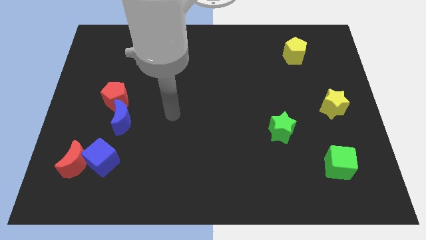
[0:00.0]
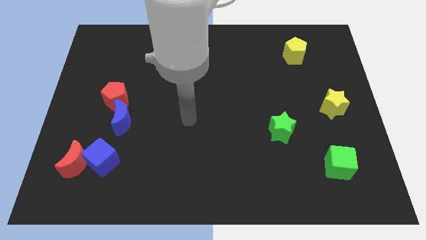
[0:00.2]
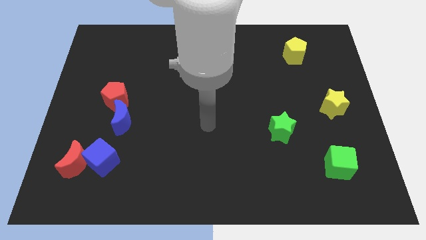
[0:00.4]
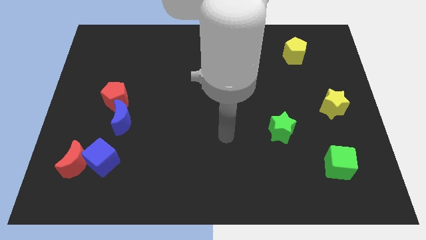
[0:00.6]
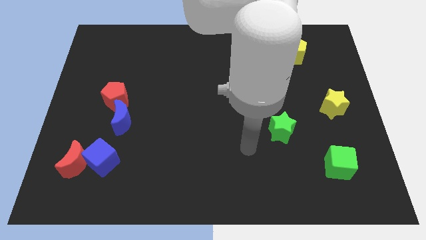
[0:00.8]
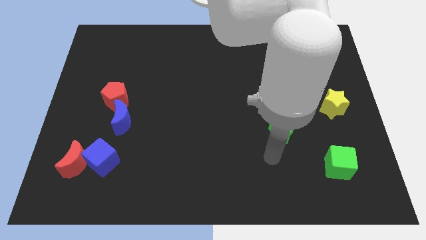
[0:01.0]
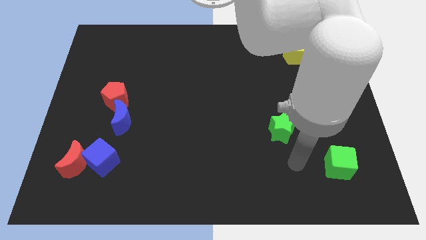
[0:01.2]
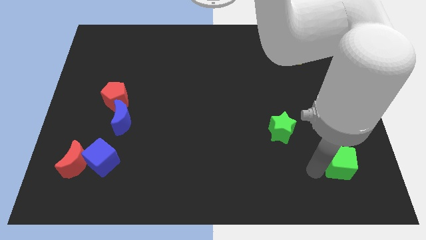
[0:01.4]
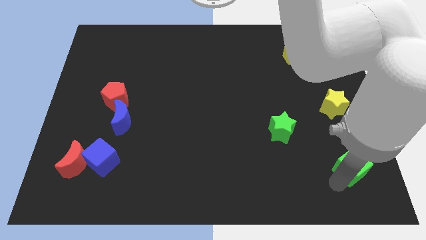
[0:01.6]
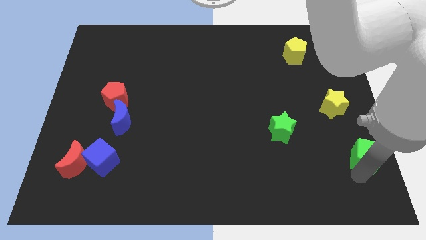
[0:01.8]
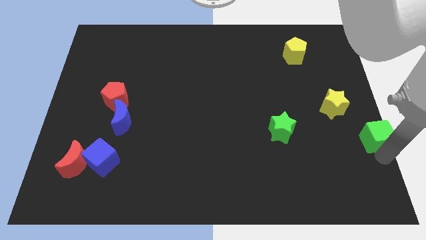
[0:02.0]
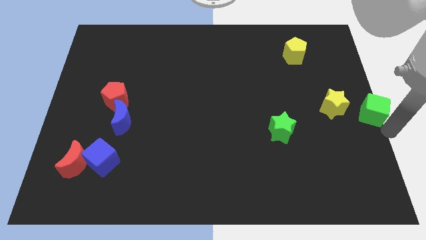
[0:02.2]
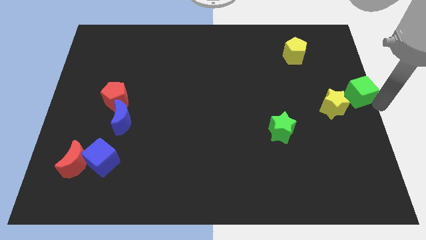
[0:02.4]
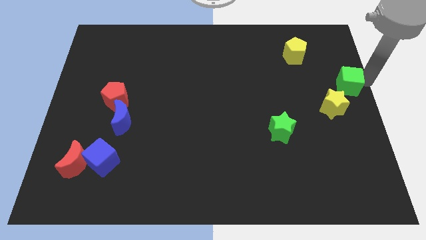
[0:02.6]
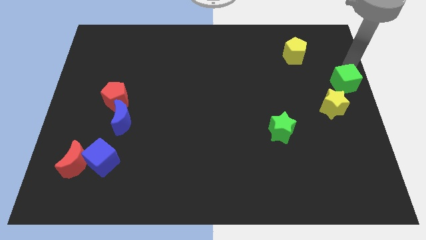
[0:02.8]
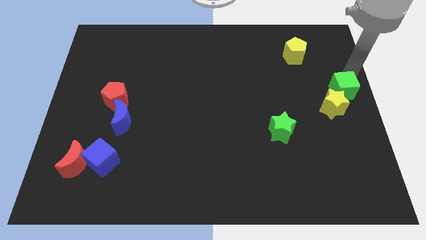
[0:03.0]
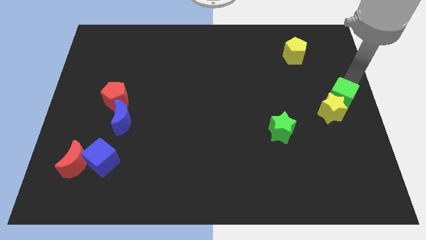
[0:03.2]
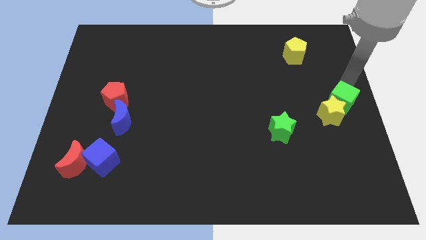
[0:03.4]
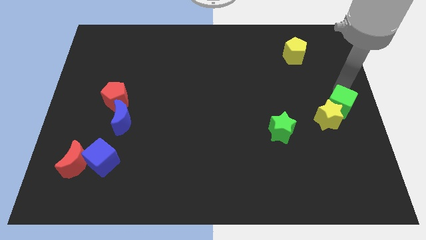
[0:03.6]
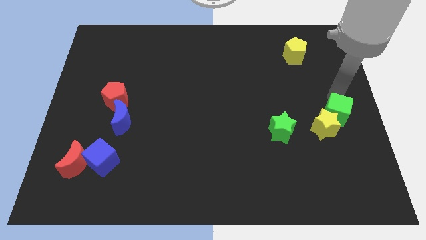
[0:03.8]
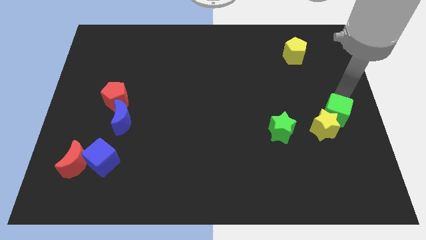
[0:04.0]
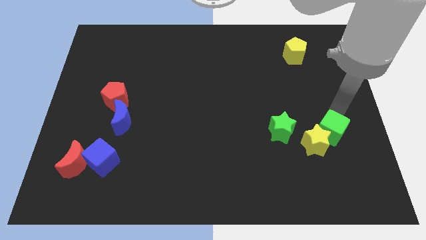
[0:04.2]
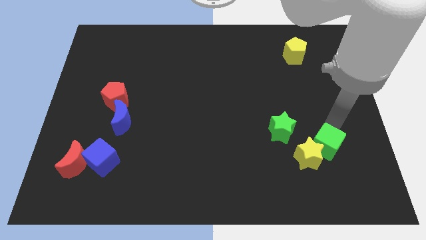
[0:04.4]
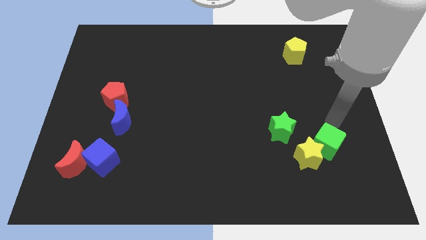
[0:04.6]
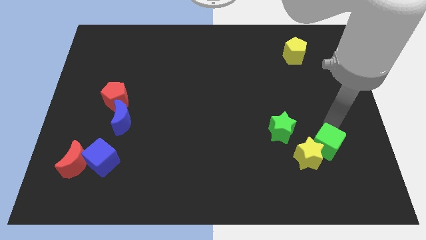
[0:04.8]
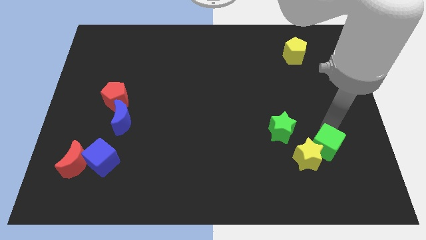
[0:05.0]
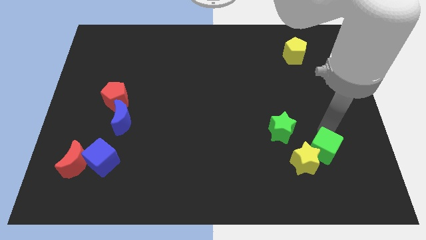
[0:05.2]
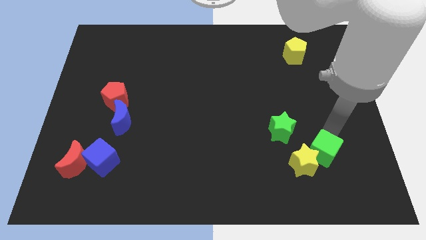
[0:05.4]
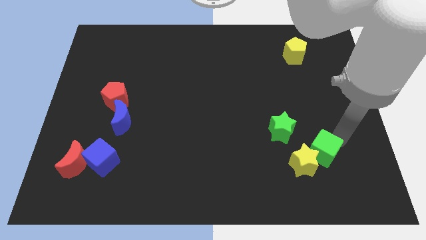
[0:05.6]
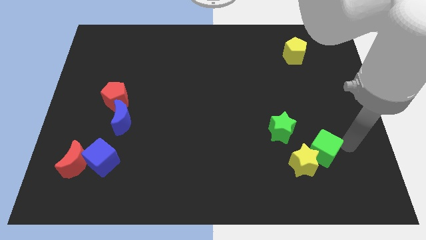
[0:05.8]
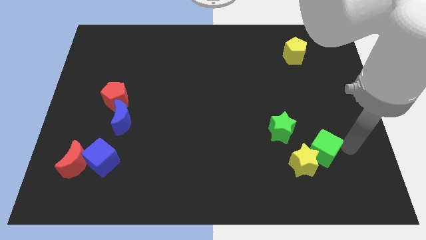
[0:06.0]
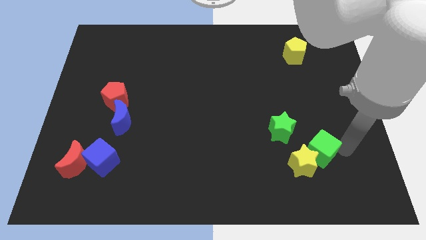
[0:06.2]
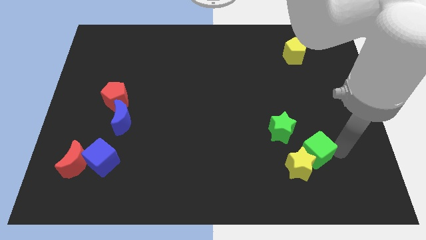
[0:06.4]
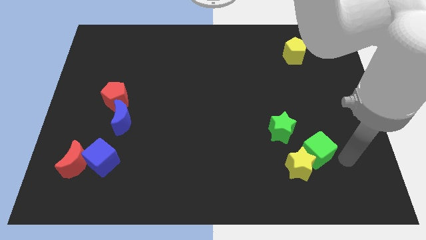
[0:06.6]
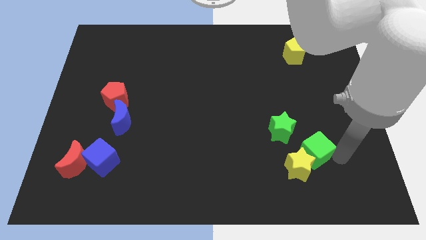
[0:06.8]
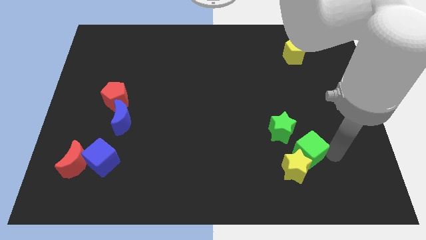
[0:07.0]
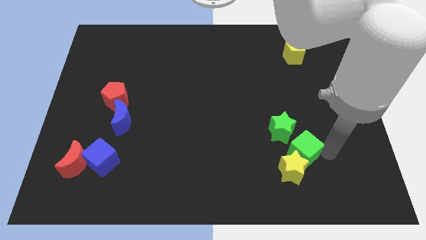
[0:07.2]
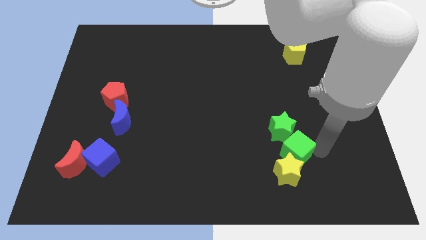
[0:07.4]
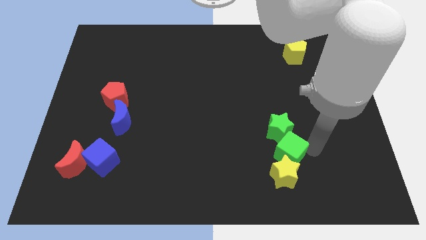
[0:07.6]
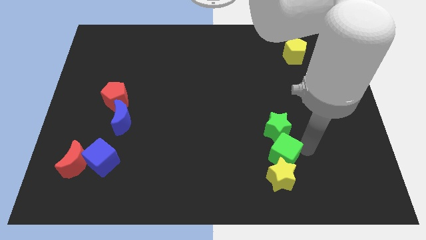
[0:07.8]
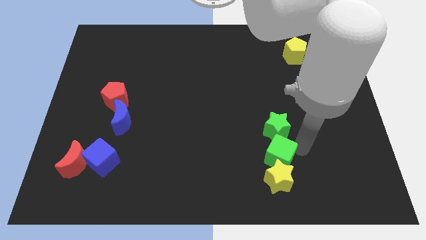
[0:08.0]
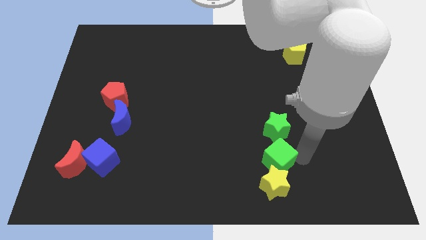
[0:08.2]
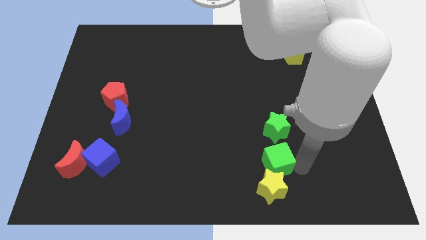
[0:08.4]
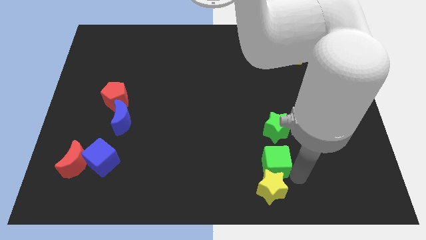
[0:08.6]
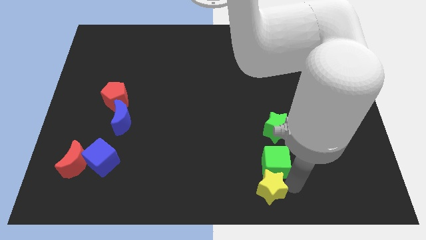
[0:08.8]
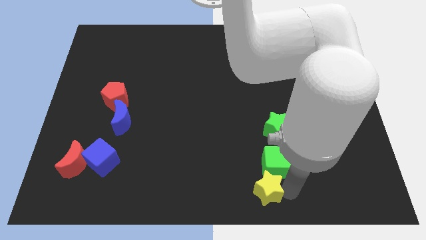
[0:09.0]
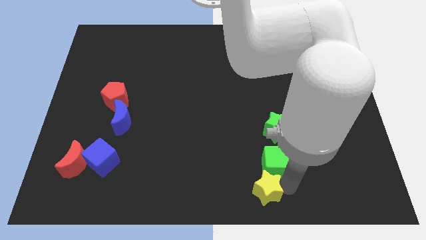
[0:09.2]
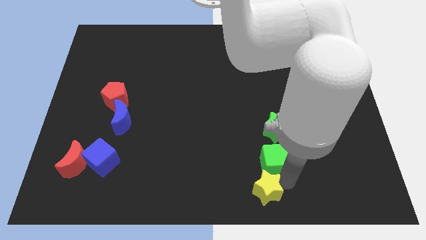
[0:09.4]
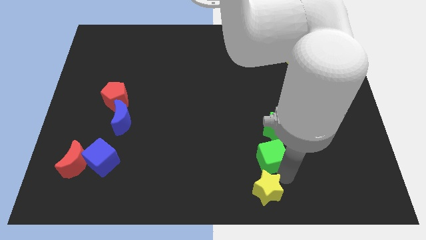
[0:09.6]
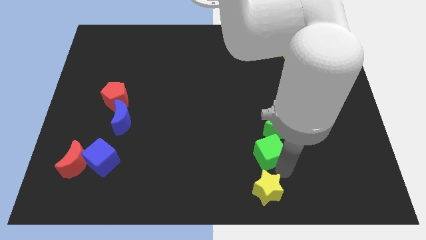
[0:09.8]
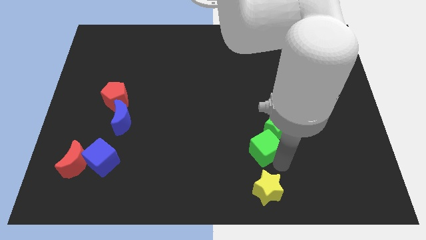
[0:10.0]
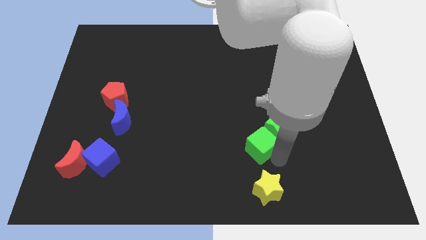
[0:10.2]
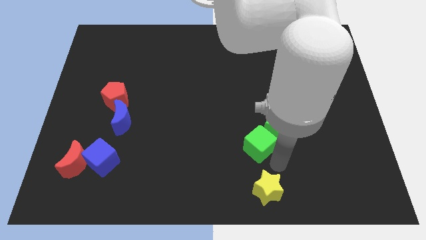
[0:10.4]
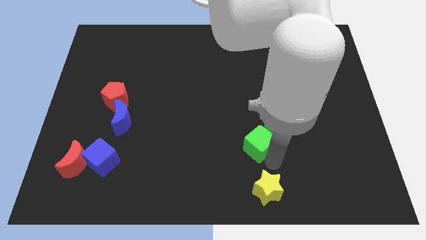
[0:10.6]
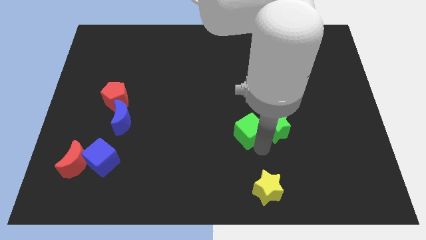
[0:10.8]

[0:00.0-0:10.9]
move the green cube to the center of the board

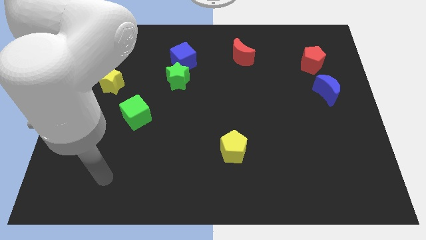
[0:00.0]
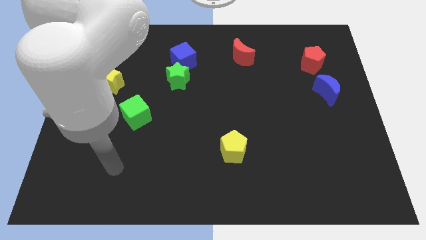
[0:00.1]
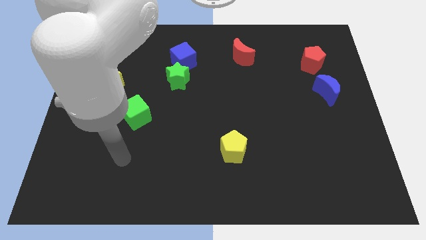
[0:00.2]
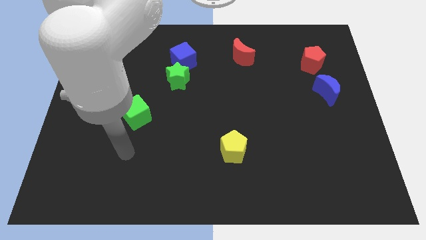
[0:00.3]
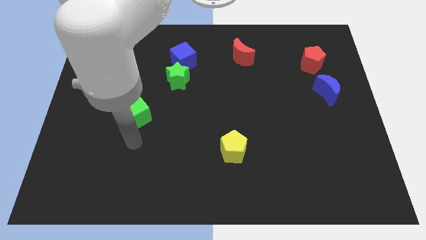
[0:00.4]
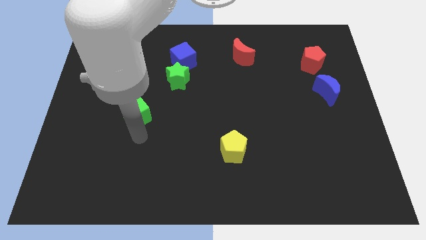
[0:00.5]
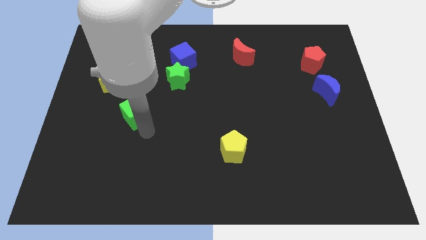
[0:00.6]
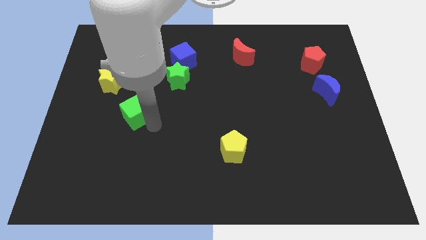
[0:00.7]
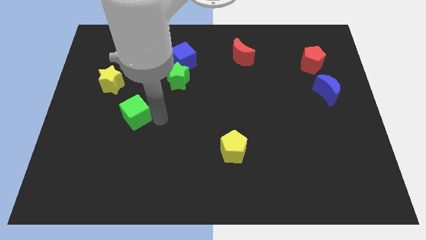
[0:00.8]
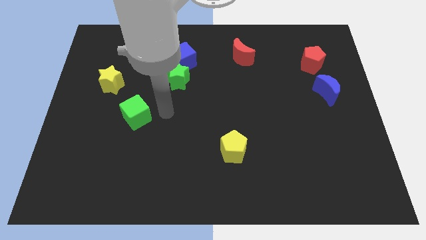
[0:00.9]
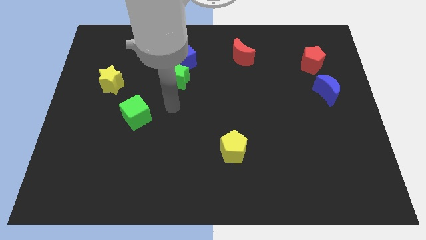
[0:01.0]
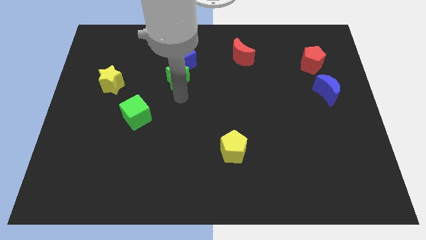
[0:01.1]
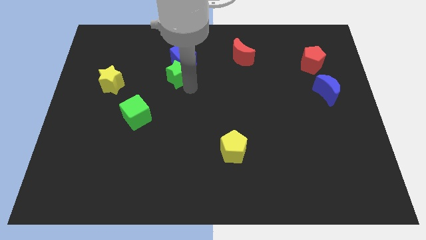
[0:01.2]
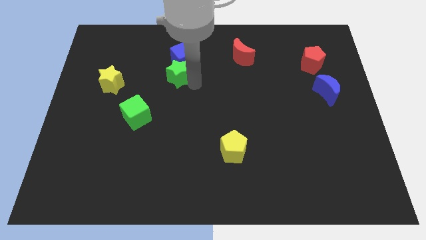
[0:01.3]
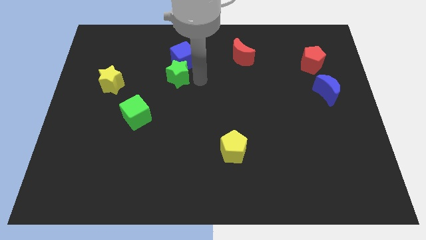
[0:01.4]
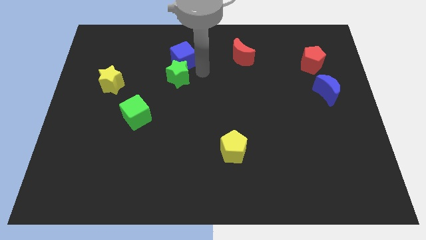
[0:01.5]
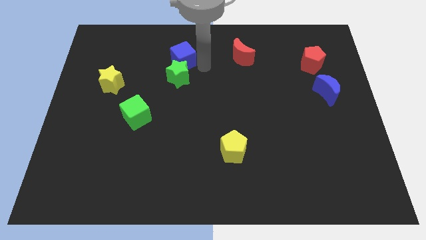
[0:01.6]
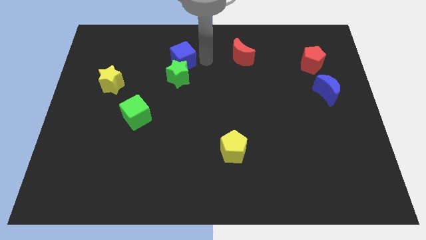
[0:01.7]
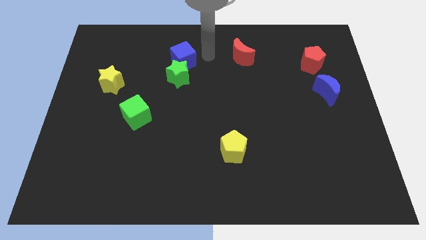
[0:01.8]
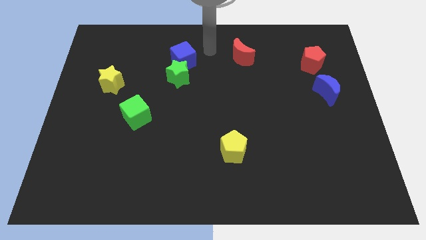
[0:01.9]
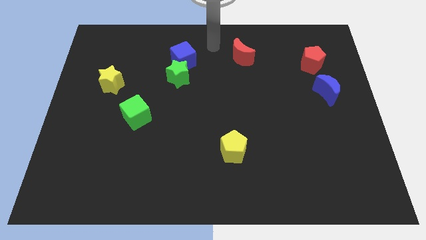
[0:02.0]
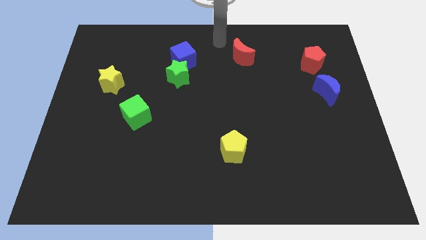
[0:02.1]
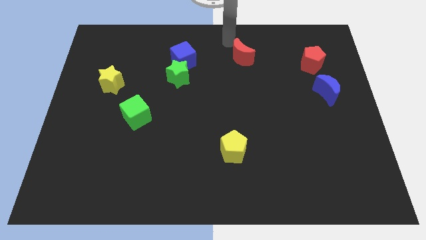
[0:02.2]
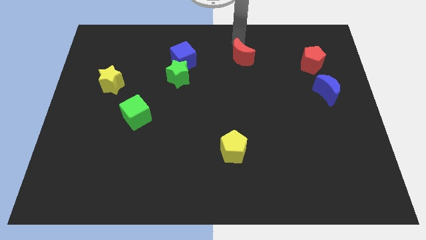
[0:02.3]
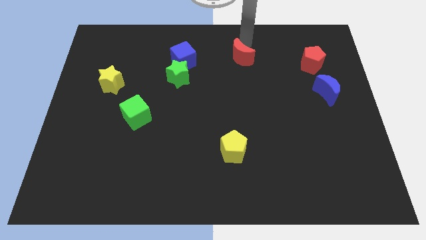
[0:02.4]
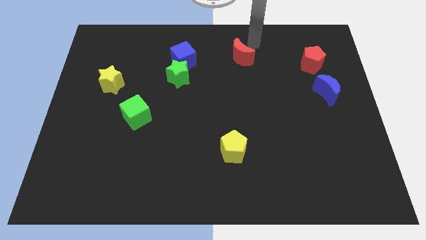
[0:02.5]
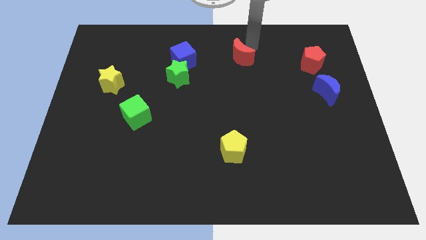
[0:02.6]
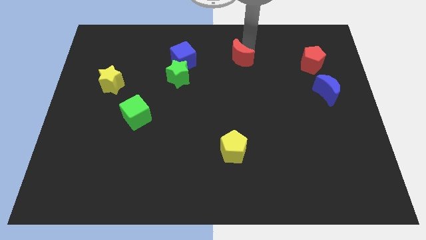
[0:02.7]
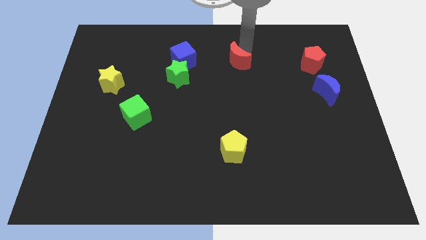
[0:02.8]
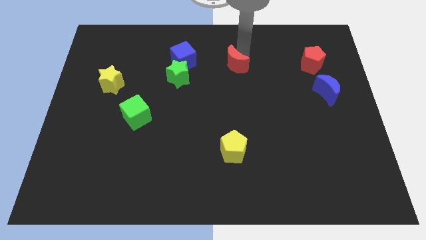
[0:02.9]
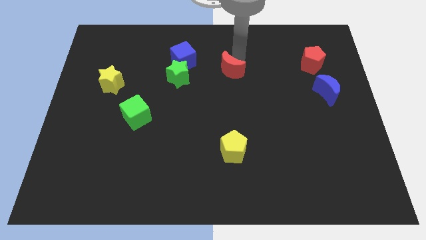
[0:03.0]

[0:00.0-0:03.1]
push the red moon to the middle of the board
